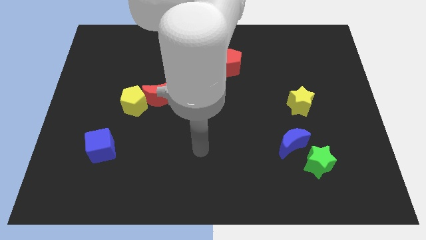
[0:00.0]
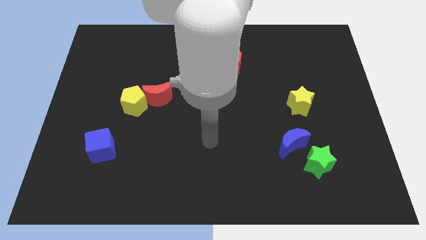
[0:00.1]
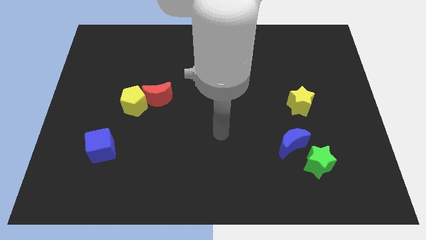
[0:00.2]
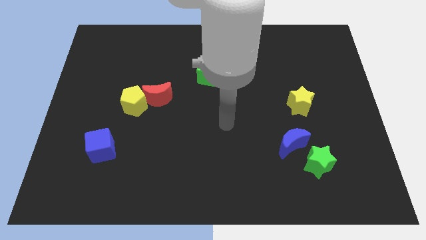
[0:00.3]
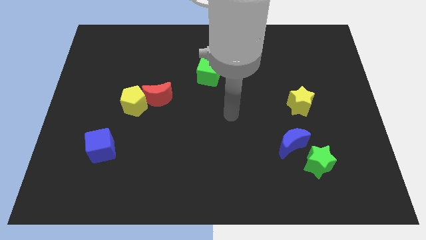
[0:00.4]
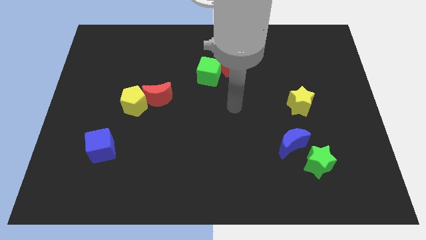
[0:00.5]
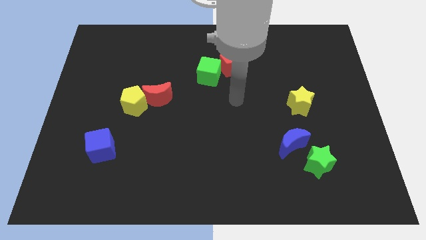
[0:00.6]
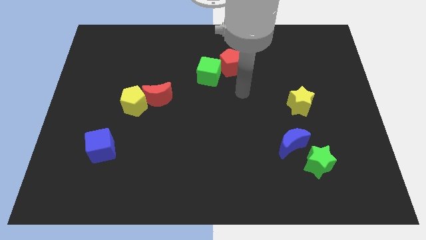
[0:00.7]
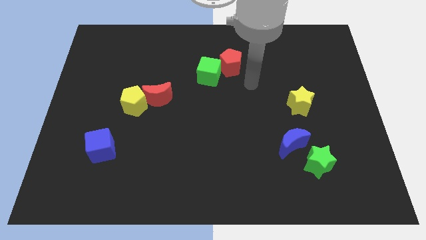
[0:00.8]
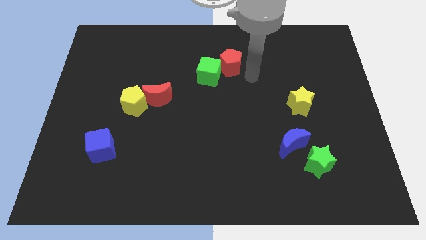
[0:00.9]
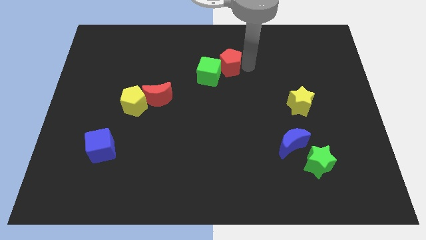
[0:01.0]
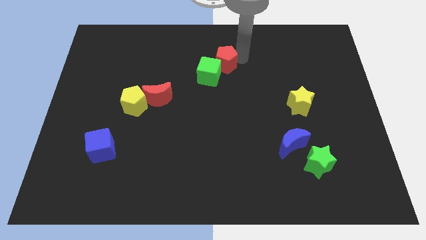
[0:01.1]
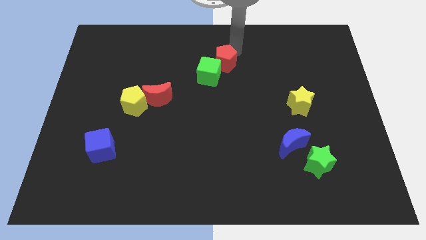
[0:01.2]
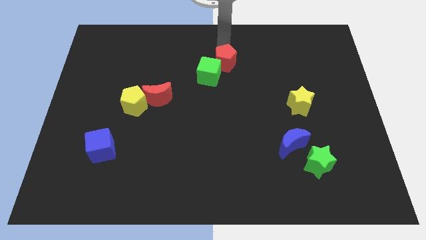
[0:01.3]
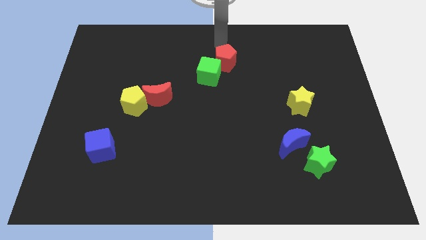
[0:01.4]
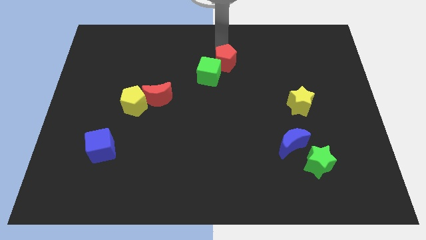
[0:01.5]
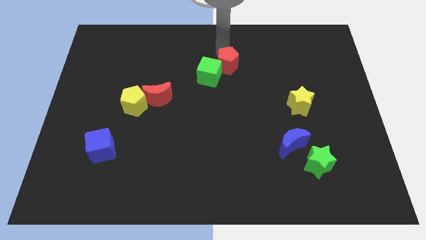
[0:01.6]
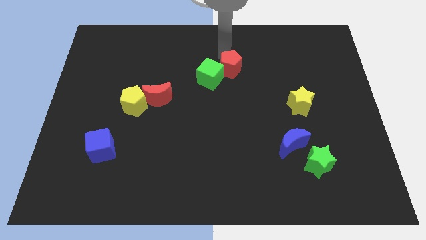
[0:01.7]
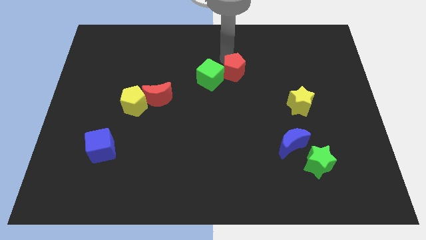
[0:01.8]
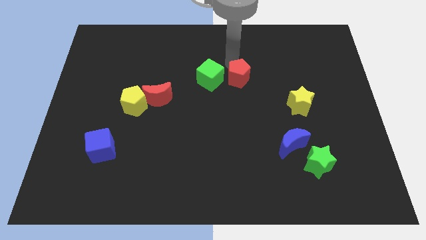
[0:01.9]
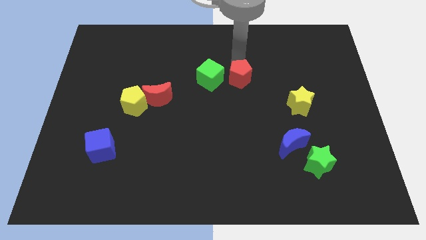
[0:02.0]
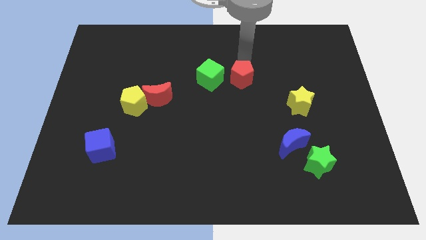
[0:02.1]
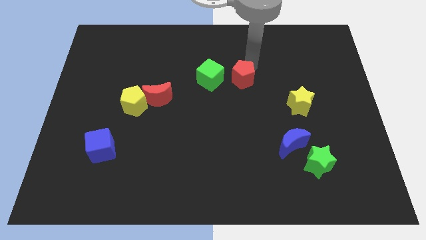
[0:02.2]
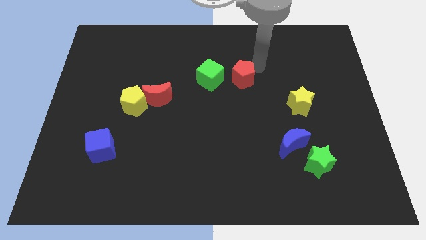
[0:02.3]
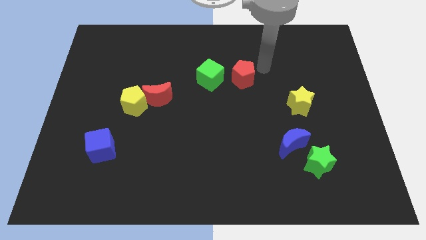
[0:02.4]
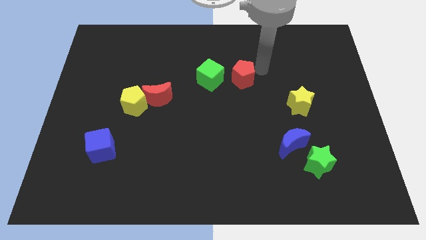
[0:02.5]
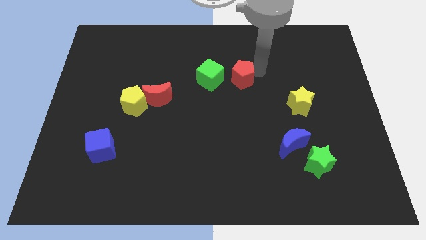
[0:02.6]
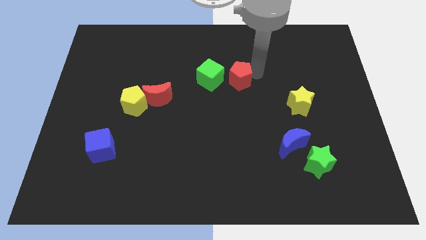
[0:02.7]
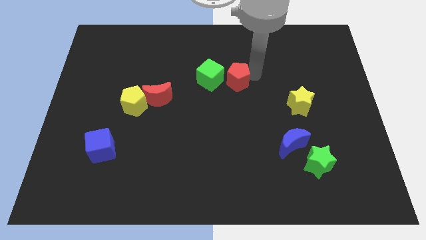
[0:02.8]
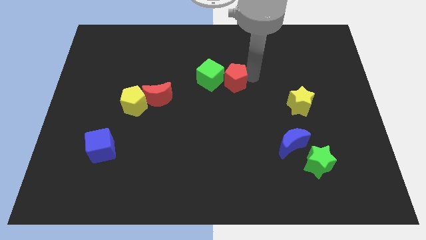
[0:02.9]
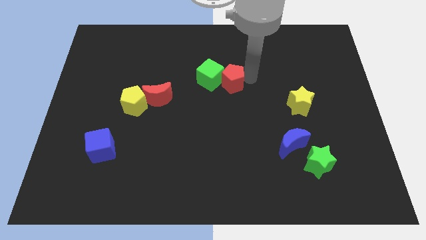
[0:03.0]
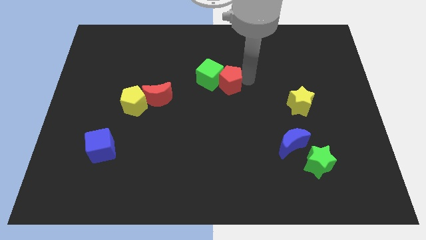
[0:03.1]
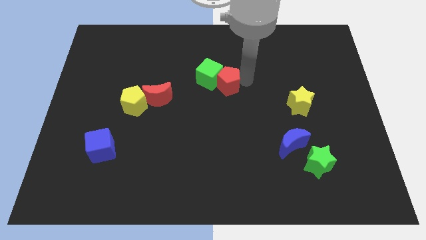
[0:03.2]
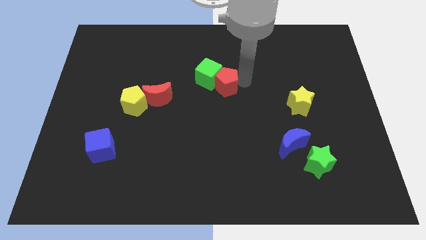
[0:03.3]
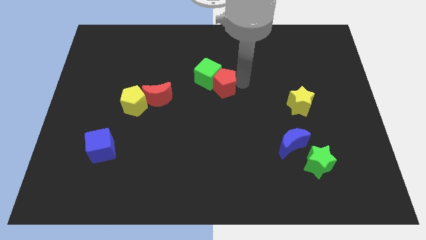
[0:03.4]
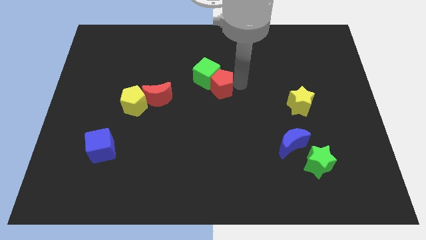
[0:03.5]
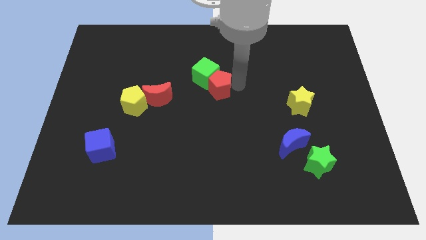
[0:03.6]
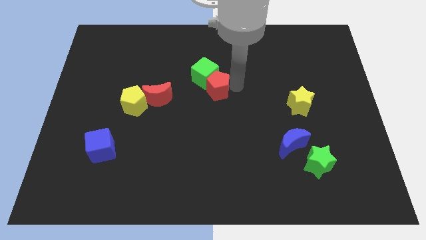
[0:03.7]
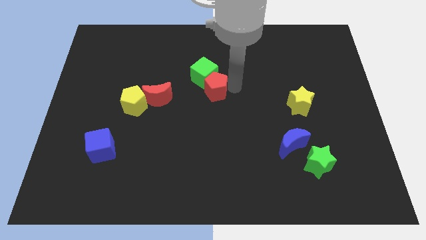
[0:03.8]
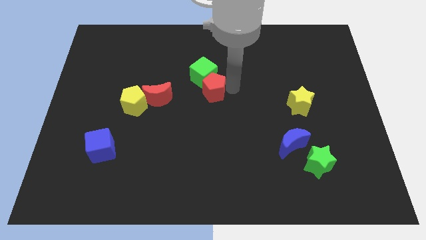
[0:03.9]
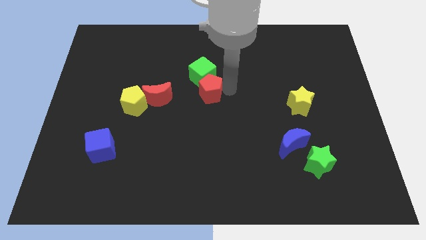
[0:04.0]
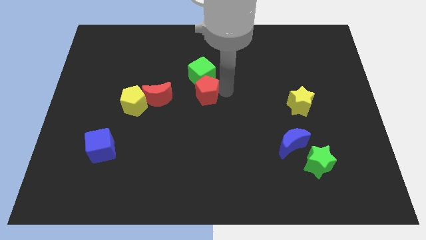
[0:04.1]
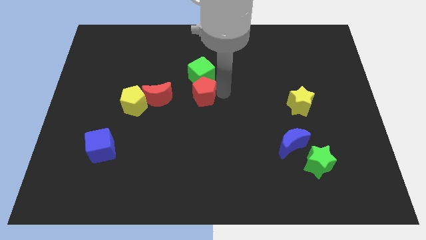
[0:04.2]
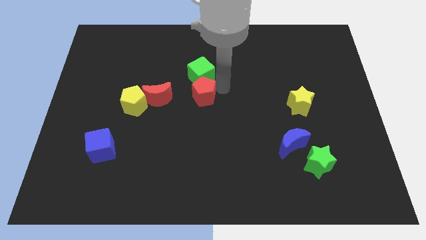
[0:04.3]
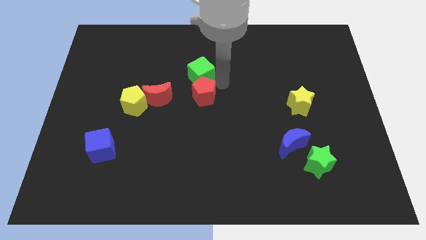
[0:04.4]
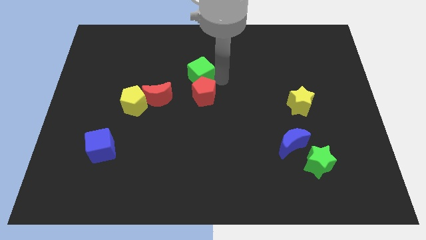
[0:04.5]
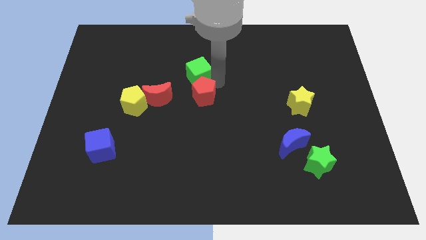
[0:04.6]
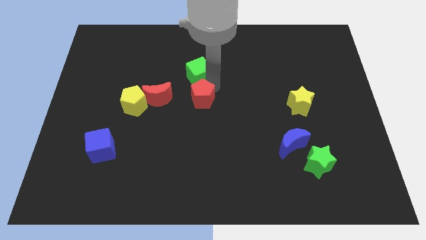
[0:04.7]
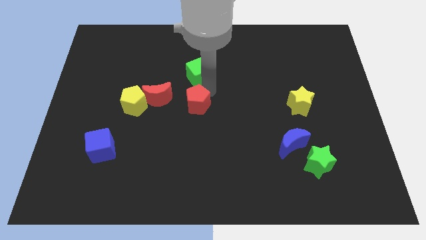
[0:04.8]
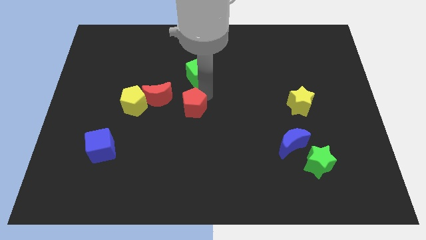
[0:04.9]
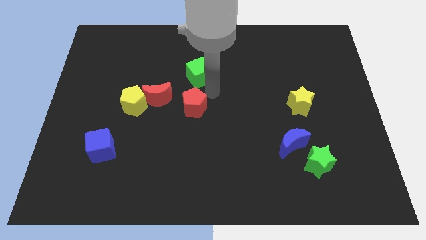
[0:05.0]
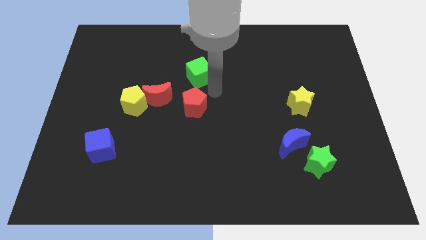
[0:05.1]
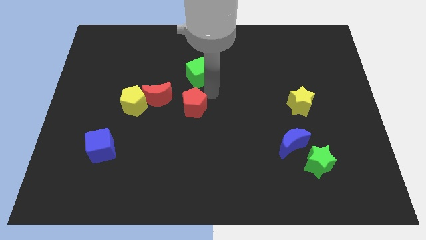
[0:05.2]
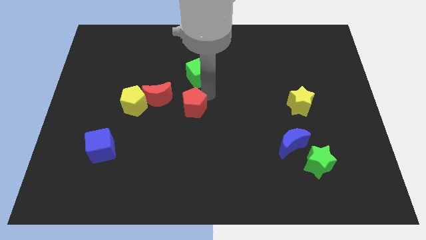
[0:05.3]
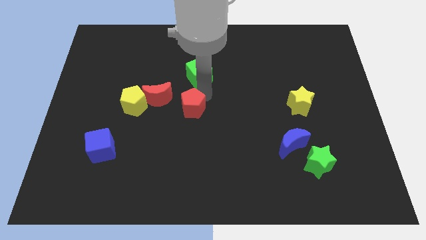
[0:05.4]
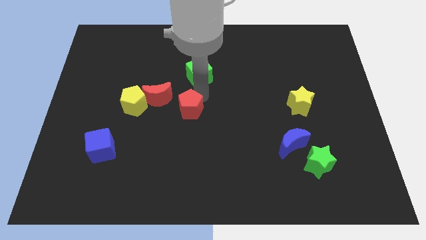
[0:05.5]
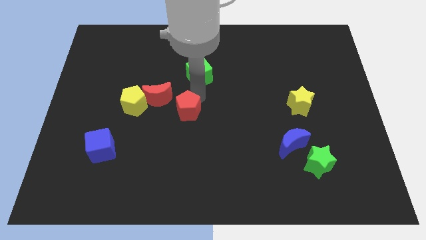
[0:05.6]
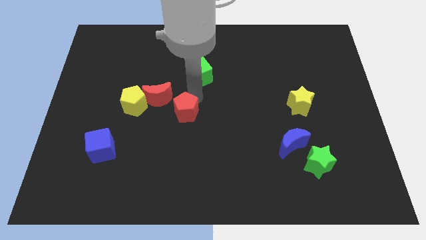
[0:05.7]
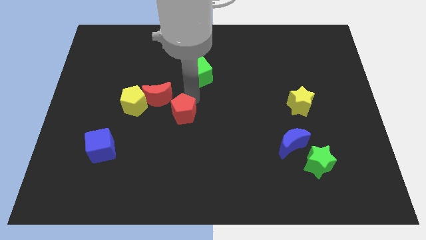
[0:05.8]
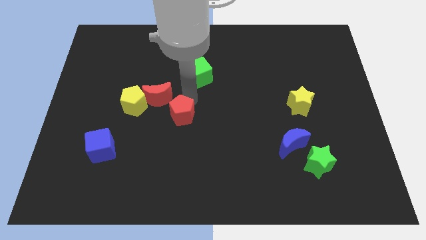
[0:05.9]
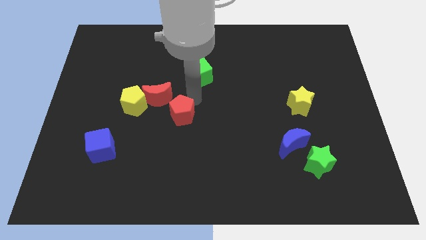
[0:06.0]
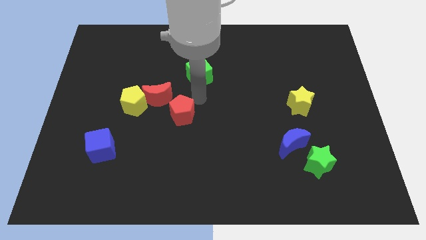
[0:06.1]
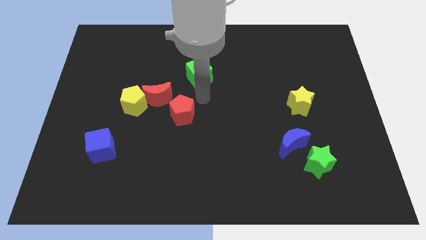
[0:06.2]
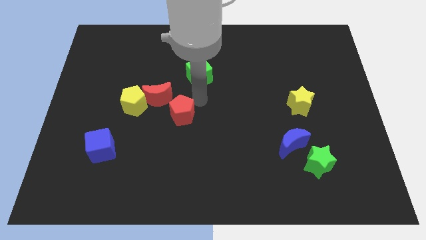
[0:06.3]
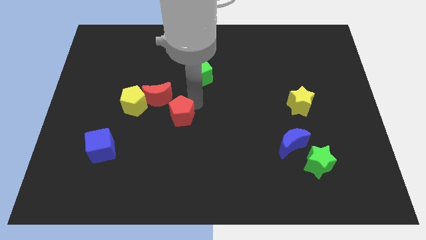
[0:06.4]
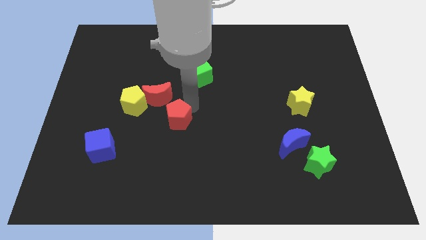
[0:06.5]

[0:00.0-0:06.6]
push the red pentagon downwards and then to the left

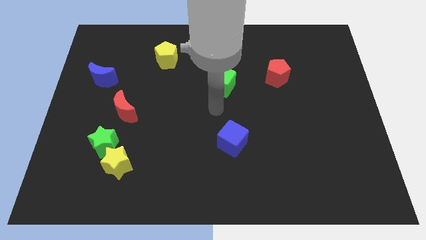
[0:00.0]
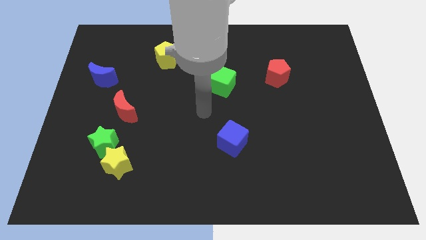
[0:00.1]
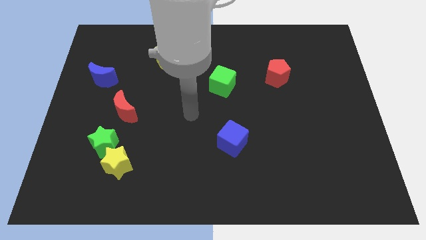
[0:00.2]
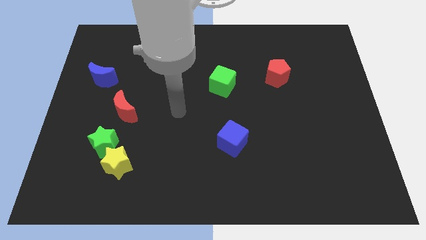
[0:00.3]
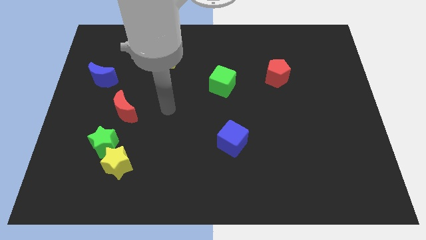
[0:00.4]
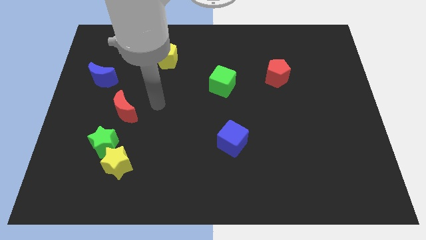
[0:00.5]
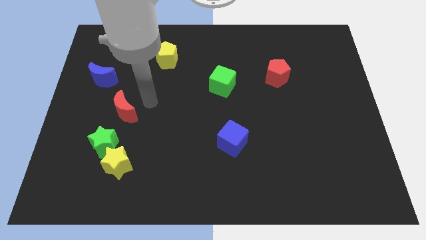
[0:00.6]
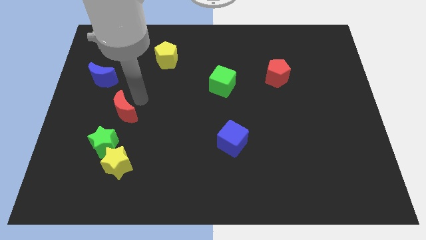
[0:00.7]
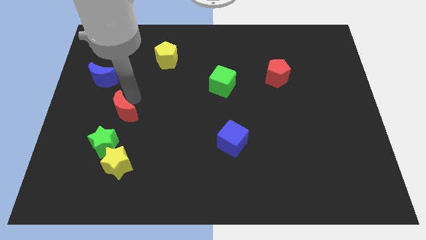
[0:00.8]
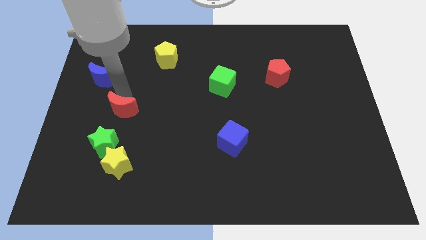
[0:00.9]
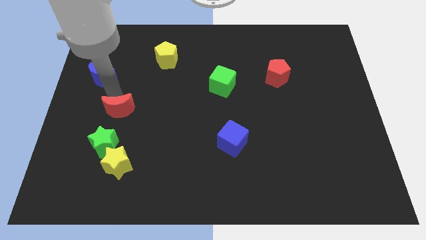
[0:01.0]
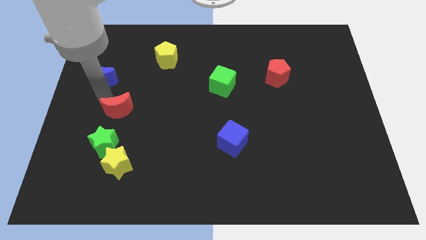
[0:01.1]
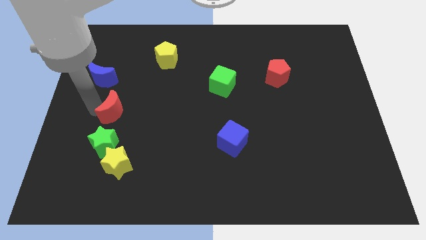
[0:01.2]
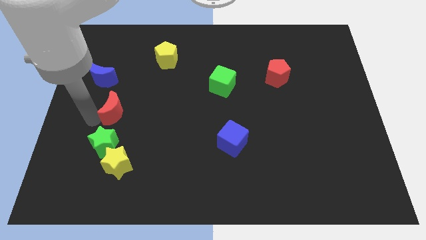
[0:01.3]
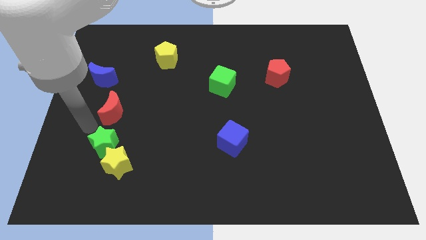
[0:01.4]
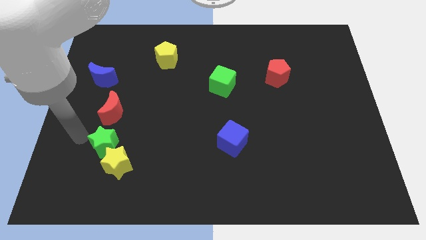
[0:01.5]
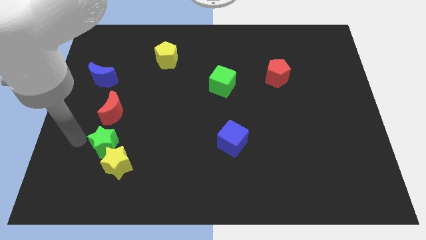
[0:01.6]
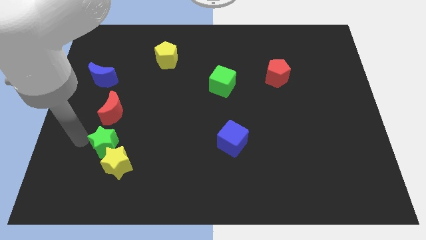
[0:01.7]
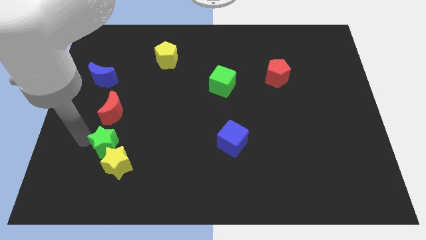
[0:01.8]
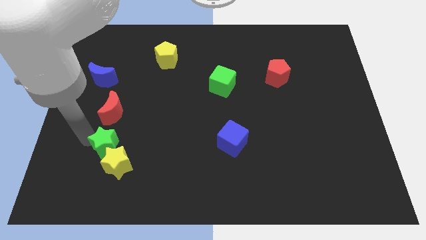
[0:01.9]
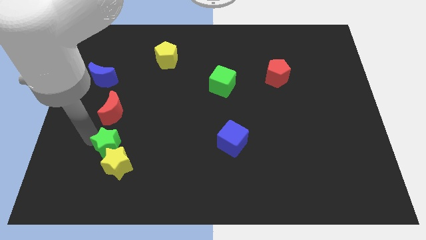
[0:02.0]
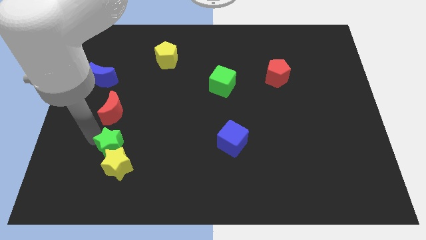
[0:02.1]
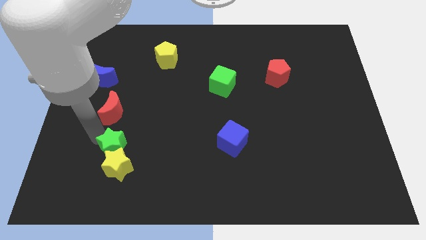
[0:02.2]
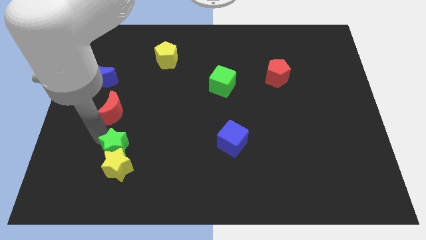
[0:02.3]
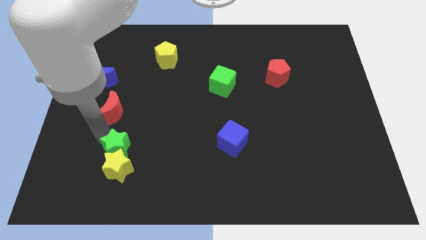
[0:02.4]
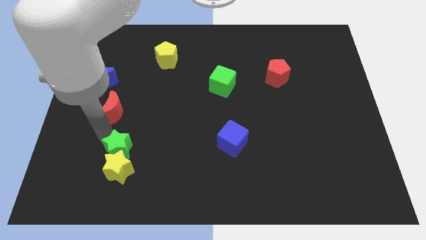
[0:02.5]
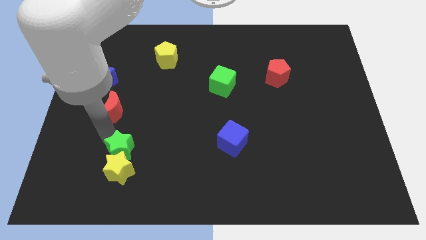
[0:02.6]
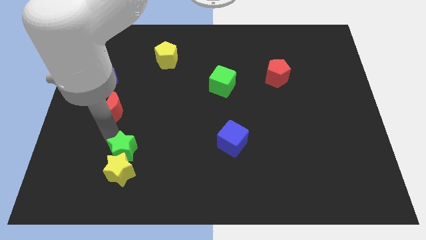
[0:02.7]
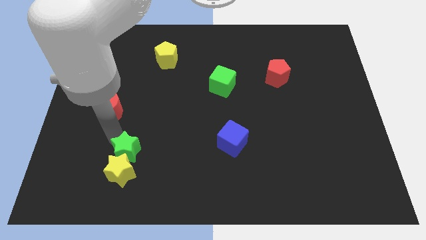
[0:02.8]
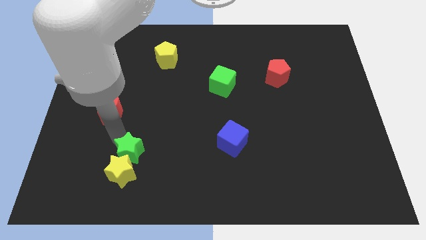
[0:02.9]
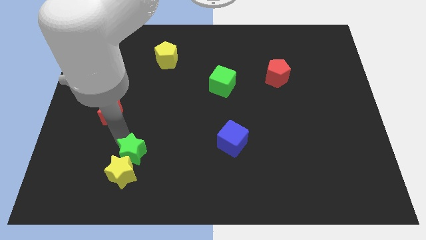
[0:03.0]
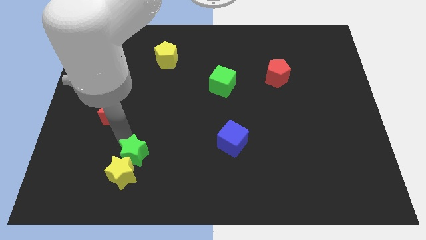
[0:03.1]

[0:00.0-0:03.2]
slightly move the green star to the right
